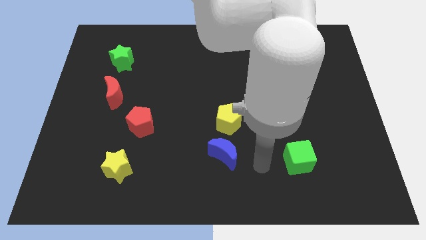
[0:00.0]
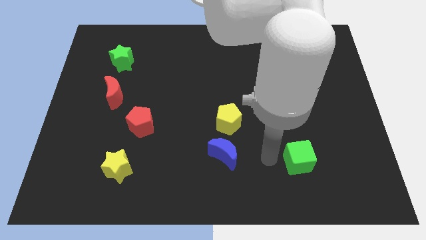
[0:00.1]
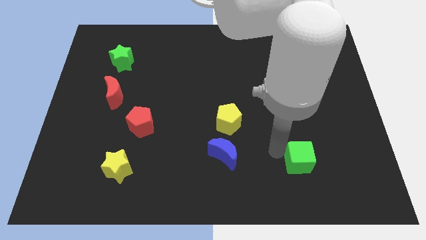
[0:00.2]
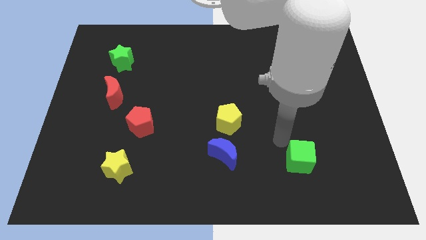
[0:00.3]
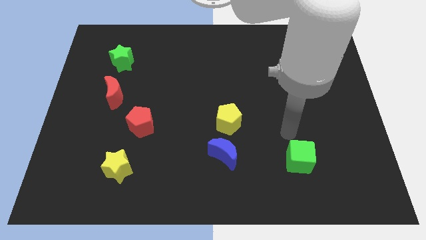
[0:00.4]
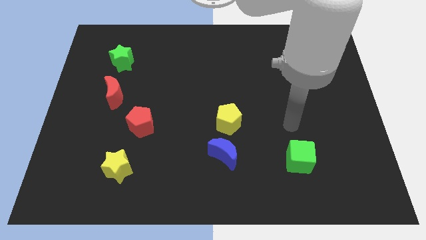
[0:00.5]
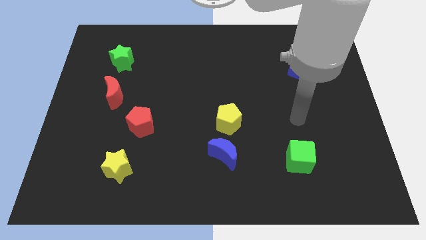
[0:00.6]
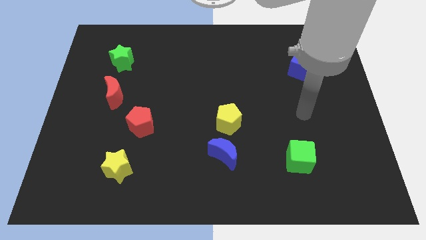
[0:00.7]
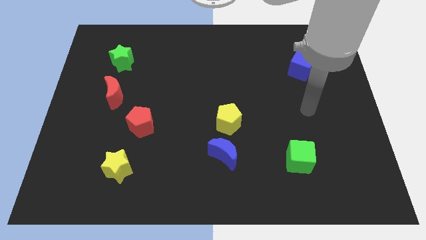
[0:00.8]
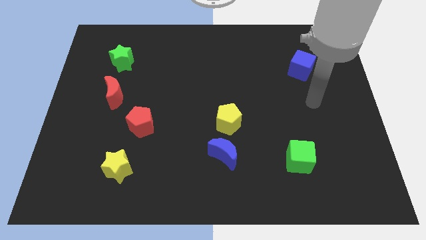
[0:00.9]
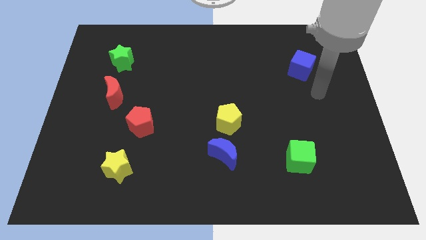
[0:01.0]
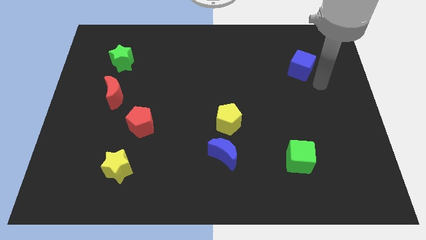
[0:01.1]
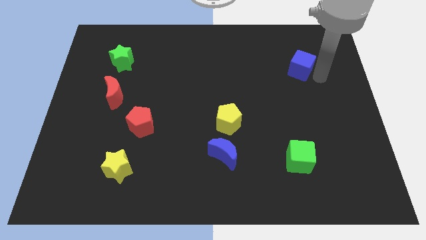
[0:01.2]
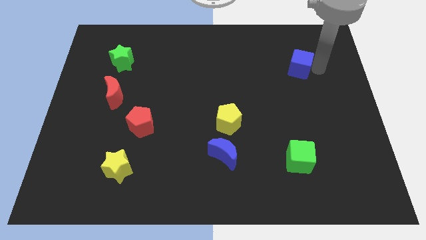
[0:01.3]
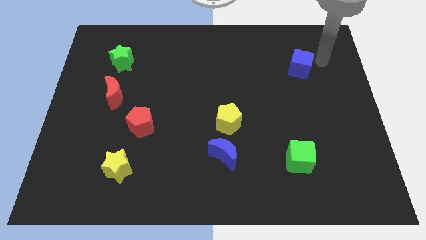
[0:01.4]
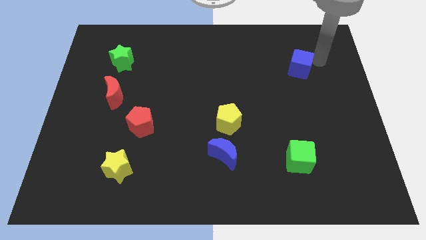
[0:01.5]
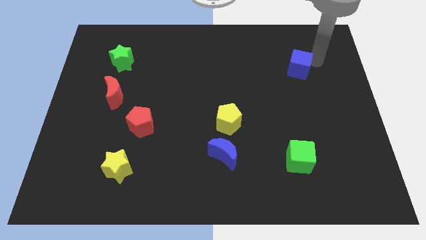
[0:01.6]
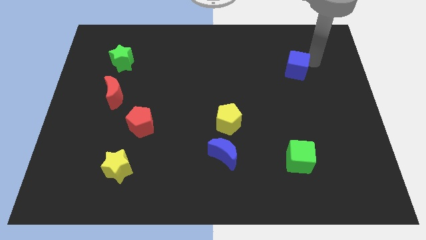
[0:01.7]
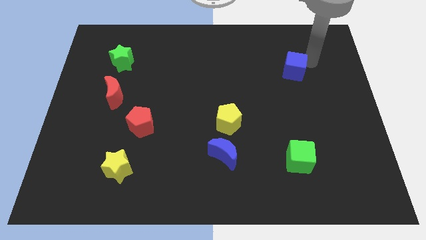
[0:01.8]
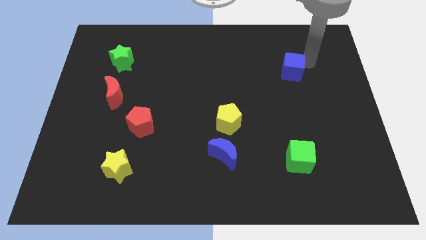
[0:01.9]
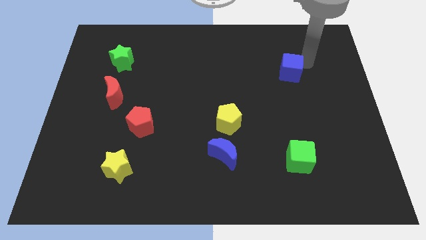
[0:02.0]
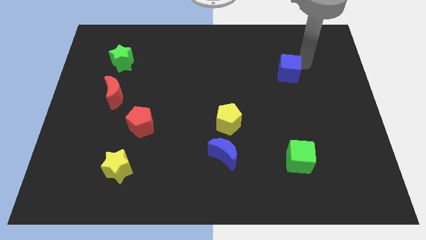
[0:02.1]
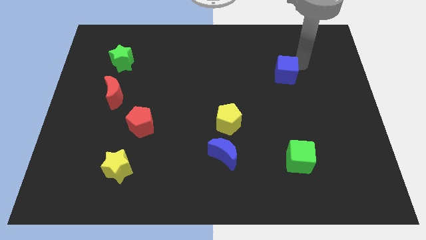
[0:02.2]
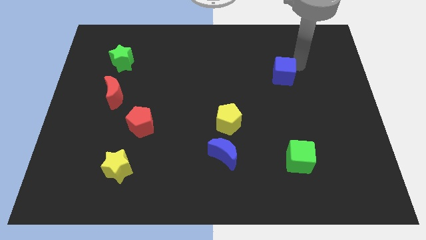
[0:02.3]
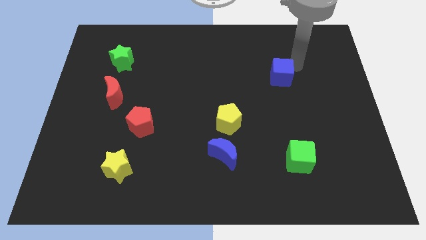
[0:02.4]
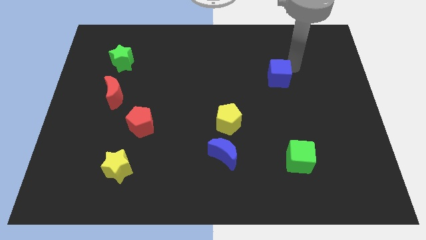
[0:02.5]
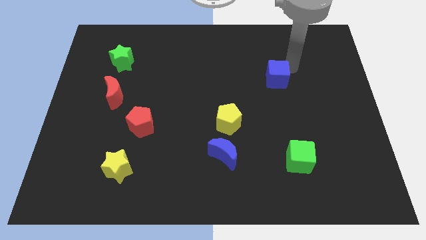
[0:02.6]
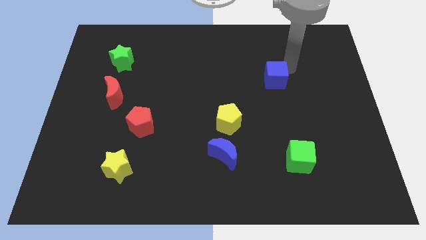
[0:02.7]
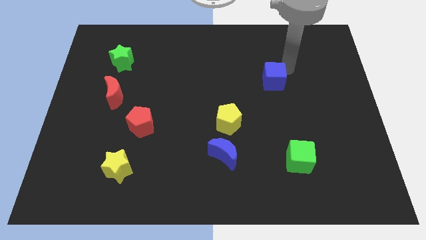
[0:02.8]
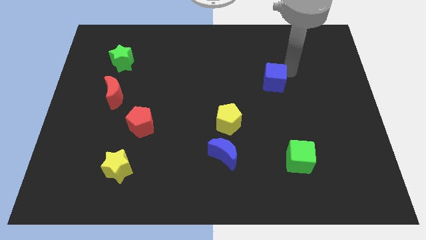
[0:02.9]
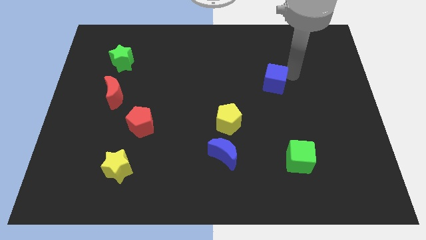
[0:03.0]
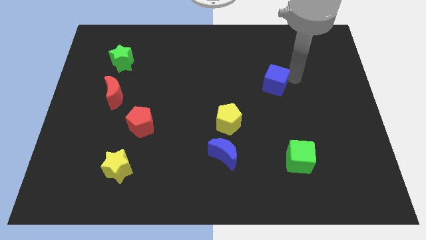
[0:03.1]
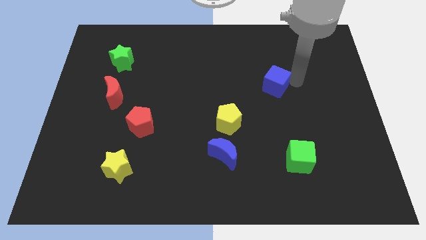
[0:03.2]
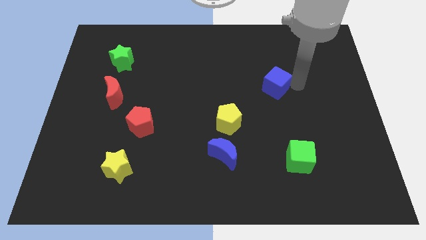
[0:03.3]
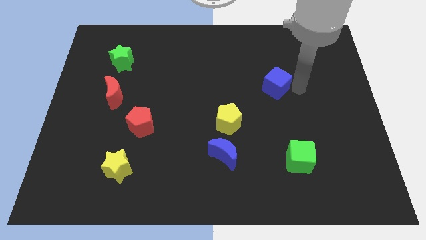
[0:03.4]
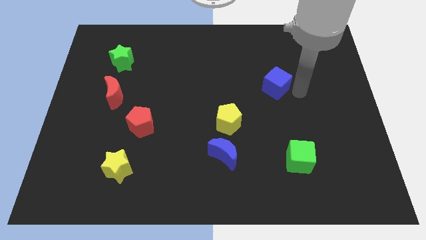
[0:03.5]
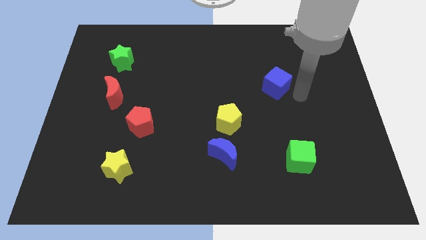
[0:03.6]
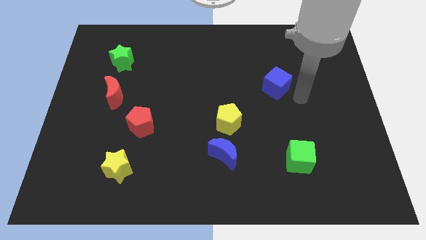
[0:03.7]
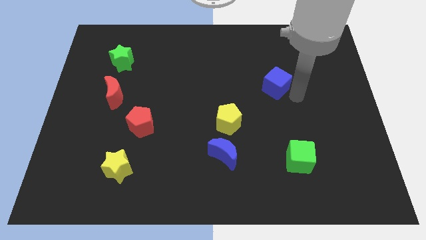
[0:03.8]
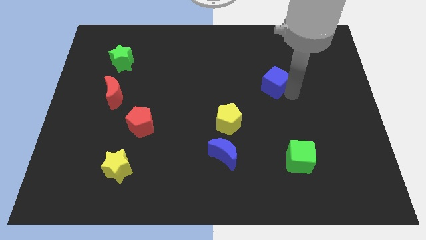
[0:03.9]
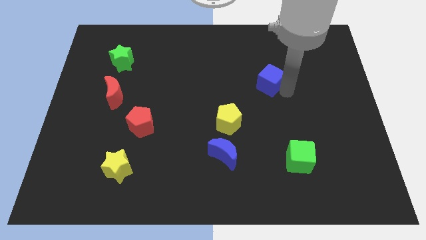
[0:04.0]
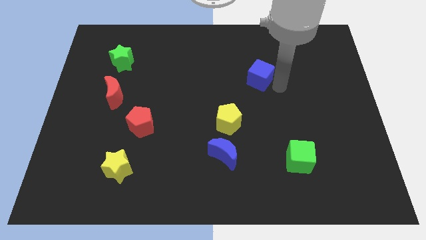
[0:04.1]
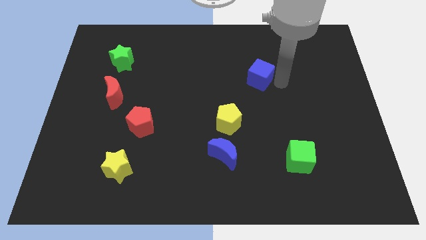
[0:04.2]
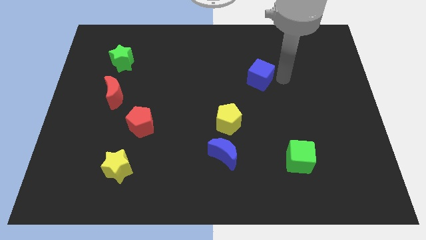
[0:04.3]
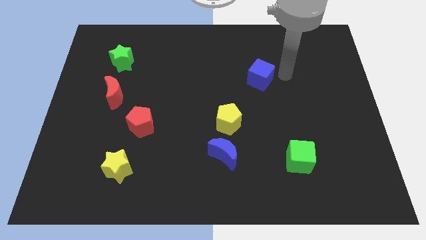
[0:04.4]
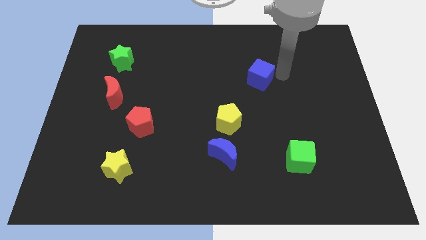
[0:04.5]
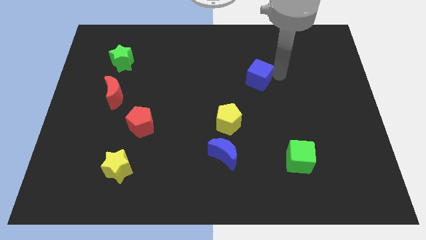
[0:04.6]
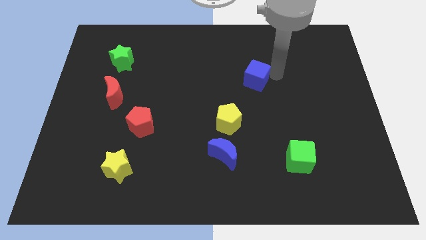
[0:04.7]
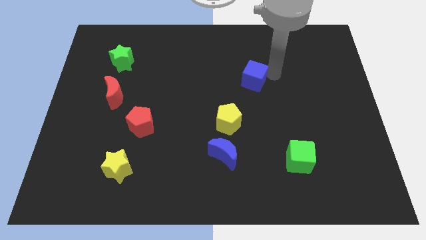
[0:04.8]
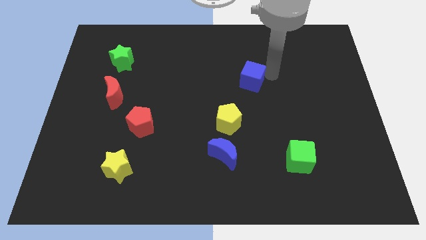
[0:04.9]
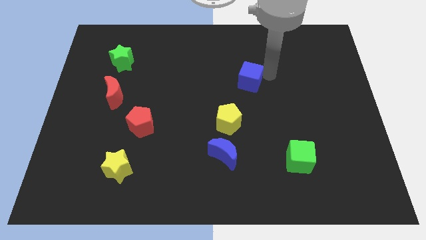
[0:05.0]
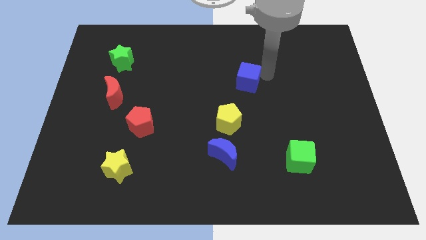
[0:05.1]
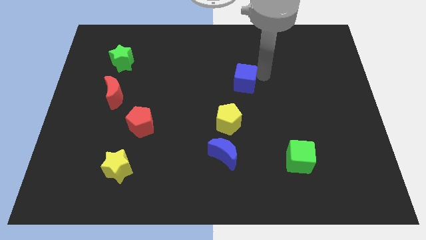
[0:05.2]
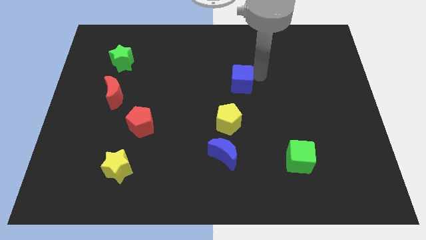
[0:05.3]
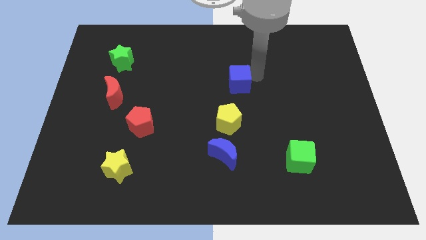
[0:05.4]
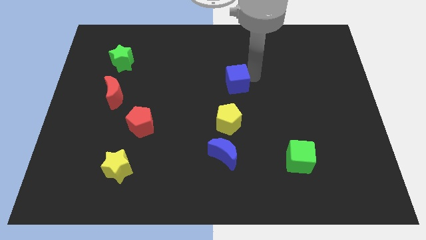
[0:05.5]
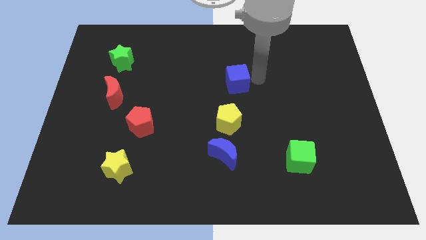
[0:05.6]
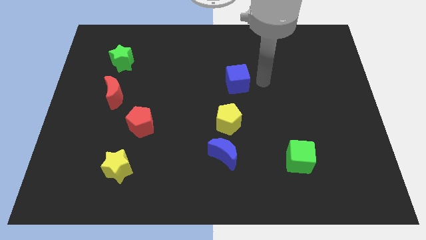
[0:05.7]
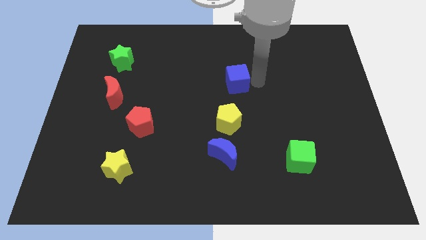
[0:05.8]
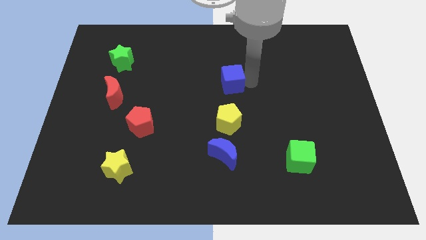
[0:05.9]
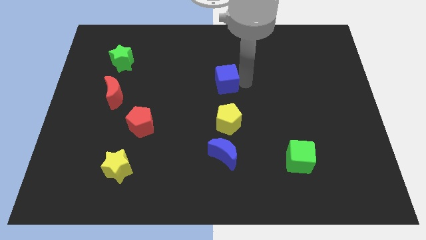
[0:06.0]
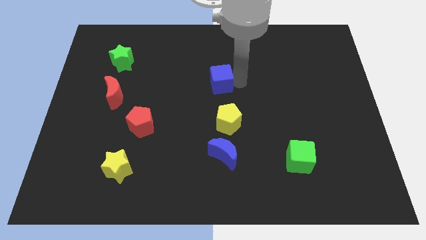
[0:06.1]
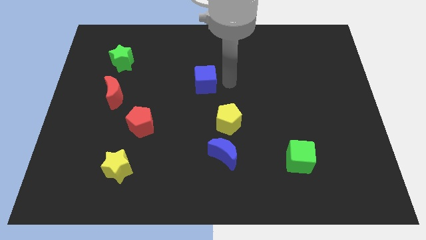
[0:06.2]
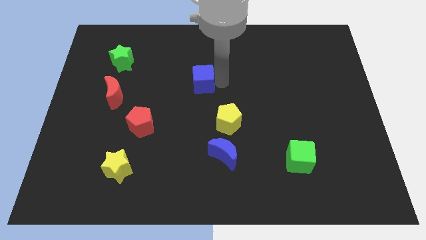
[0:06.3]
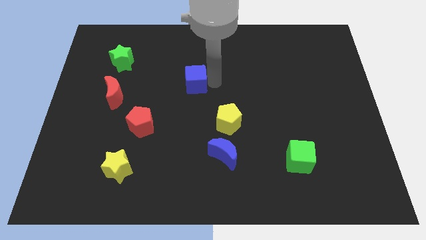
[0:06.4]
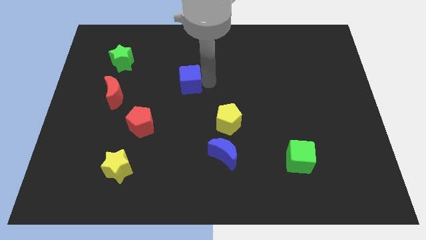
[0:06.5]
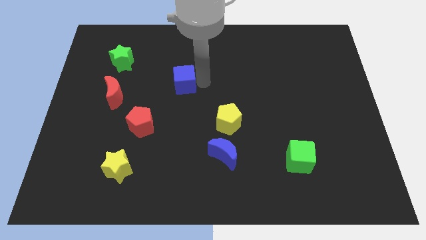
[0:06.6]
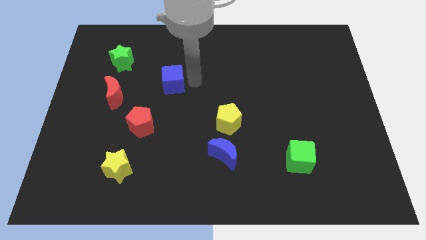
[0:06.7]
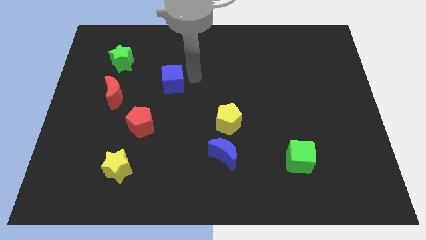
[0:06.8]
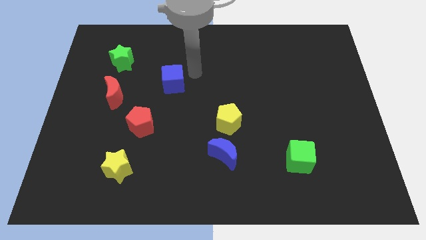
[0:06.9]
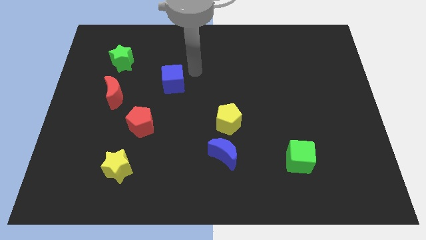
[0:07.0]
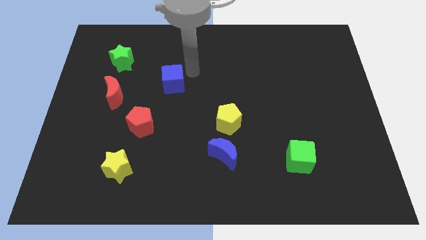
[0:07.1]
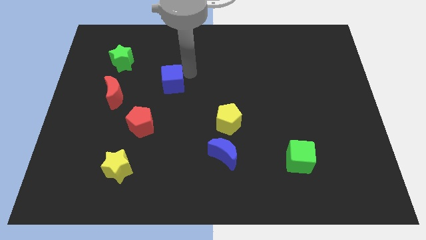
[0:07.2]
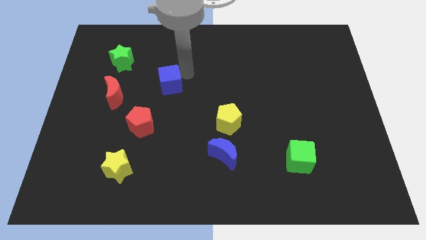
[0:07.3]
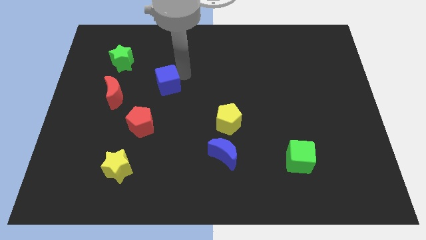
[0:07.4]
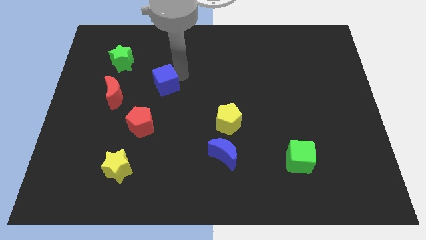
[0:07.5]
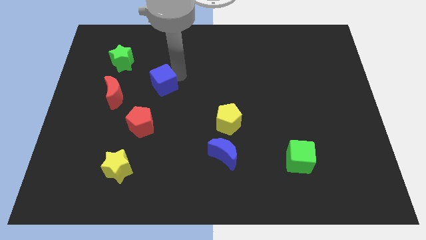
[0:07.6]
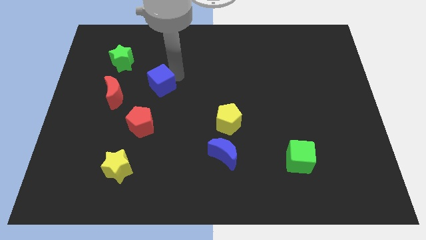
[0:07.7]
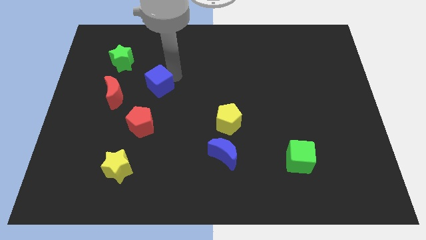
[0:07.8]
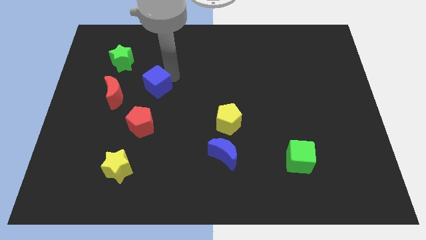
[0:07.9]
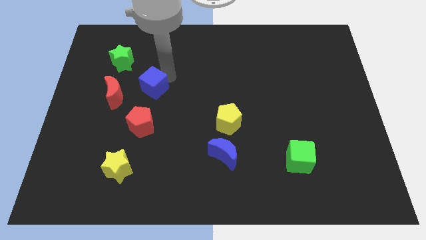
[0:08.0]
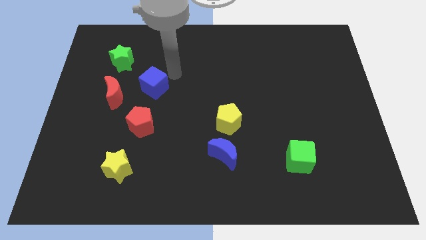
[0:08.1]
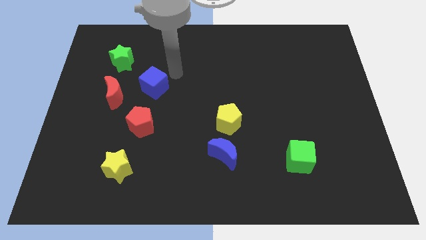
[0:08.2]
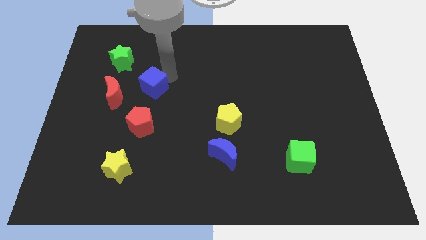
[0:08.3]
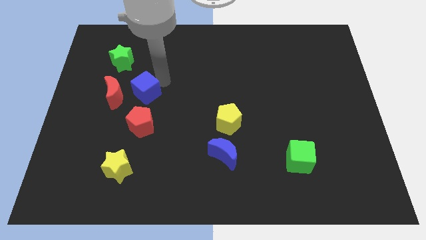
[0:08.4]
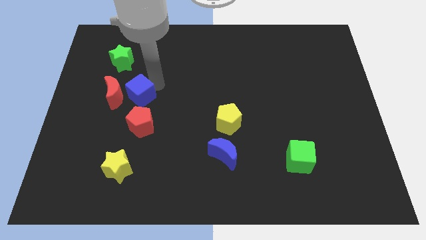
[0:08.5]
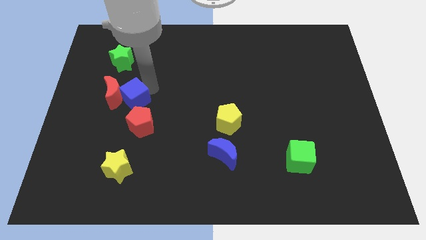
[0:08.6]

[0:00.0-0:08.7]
slide the blue cube to the top left of the red pentagon
